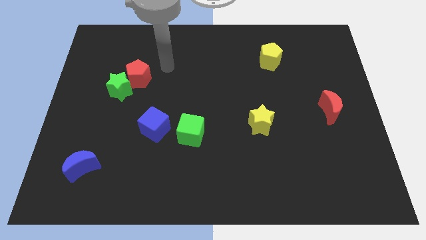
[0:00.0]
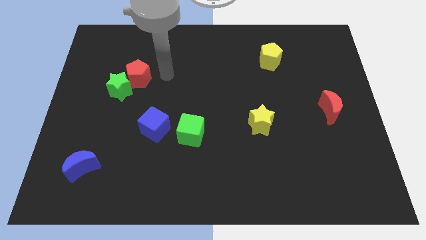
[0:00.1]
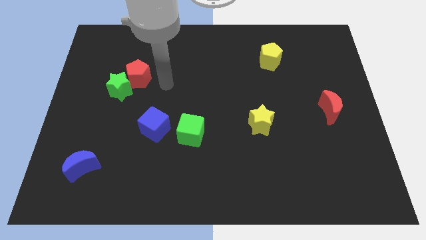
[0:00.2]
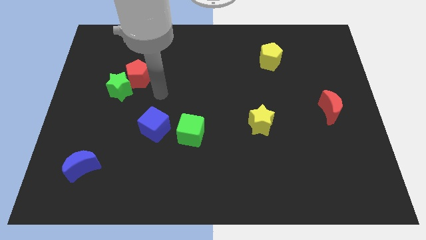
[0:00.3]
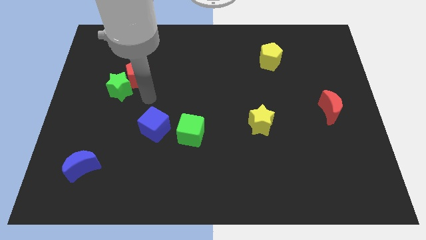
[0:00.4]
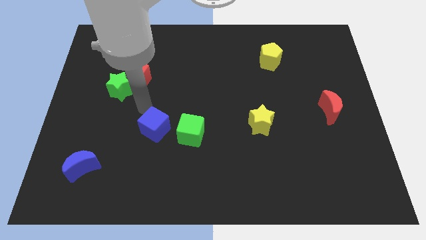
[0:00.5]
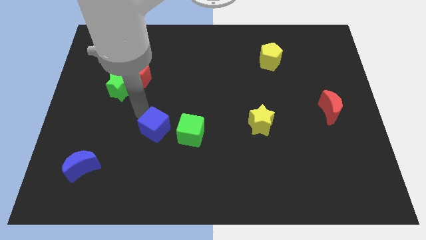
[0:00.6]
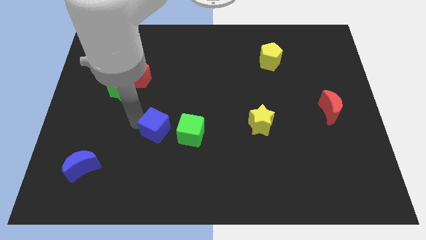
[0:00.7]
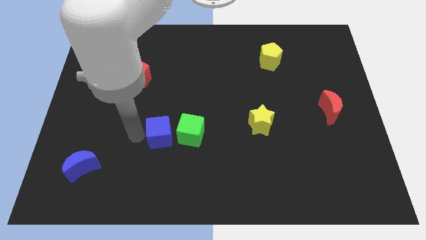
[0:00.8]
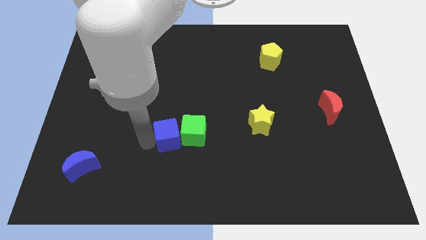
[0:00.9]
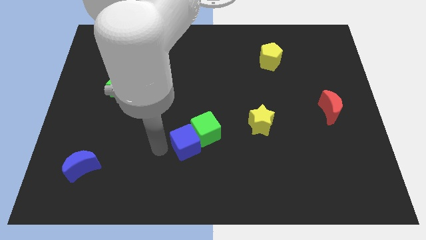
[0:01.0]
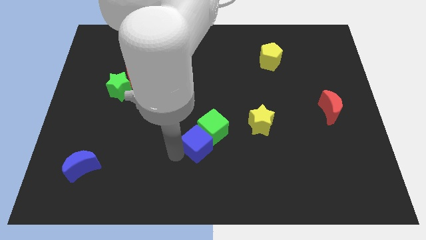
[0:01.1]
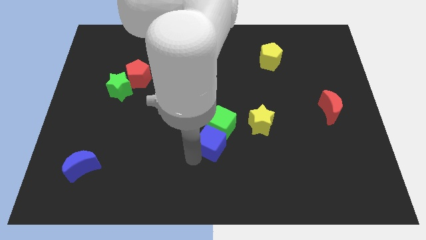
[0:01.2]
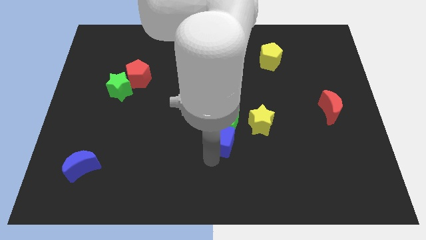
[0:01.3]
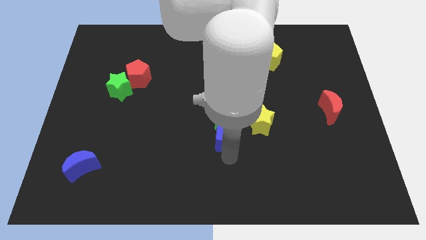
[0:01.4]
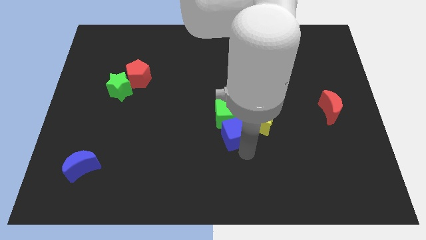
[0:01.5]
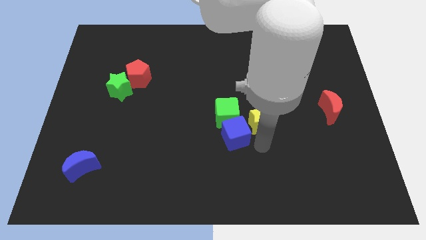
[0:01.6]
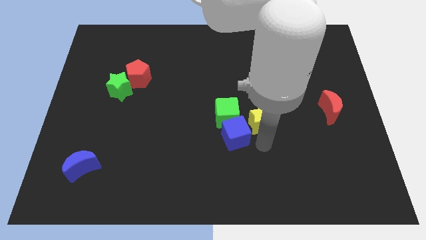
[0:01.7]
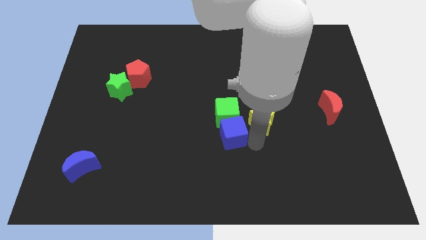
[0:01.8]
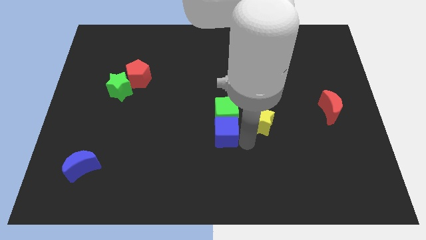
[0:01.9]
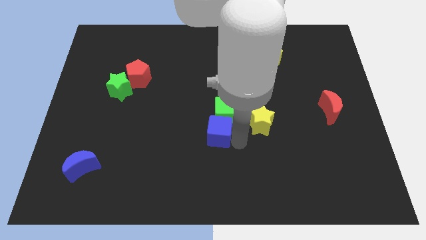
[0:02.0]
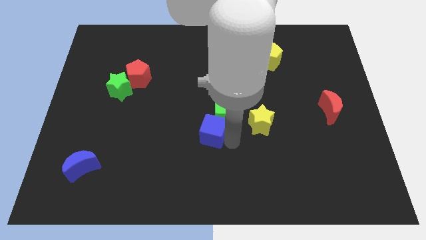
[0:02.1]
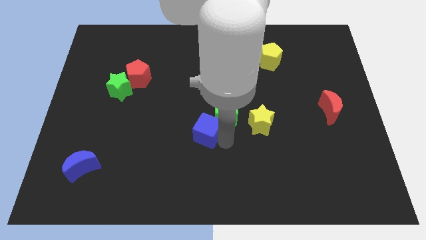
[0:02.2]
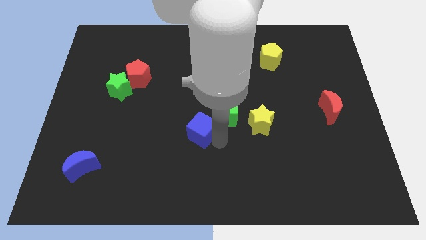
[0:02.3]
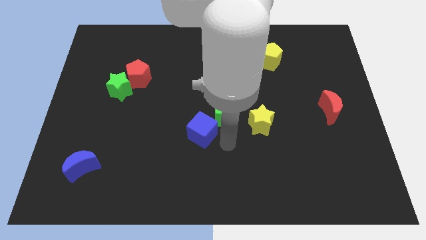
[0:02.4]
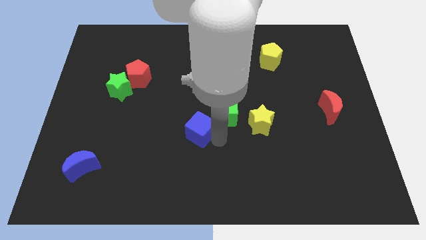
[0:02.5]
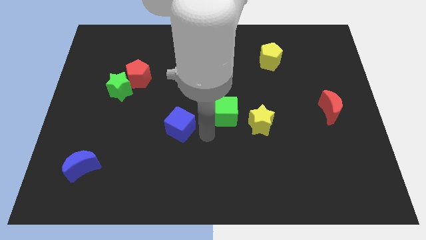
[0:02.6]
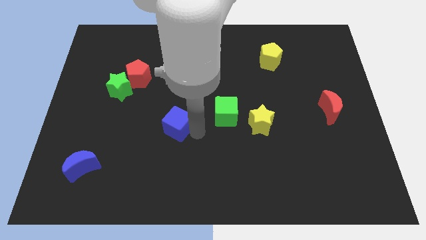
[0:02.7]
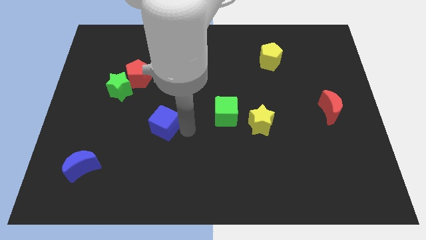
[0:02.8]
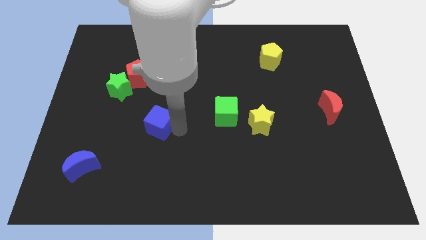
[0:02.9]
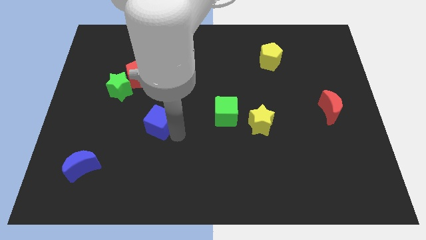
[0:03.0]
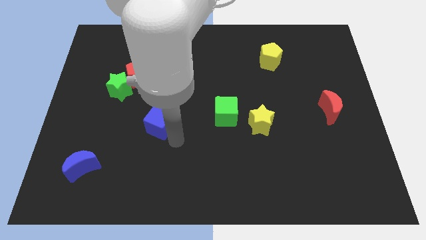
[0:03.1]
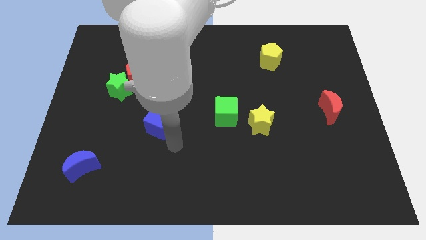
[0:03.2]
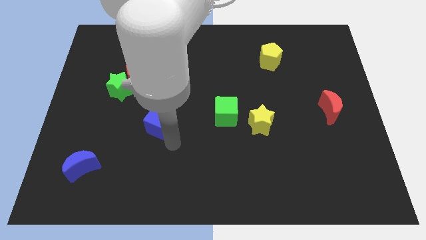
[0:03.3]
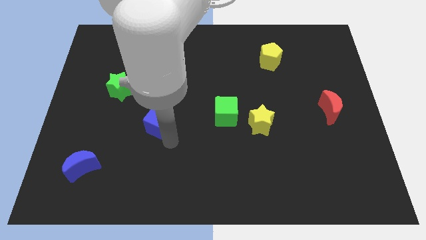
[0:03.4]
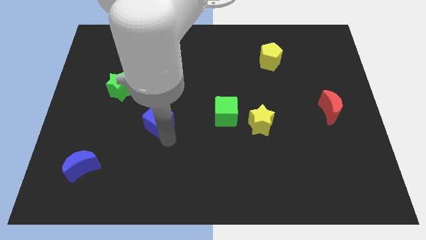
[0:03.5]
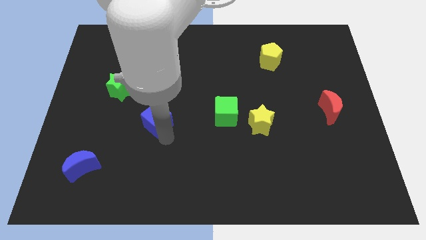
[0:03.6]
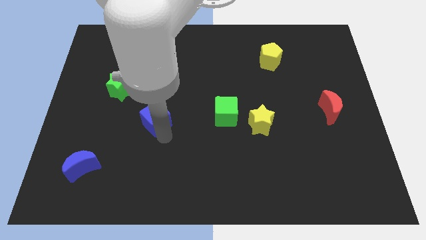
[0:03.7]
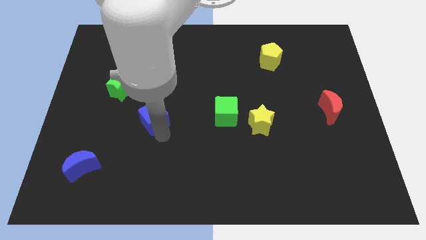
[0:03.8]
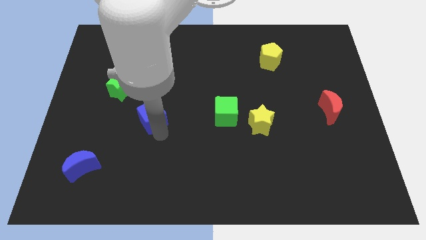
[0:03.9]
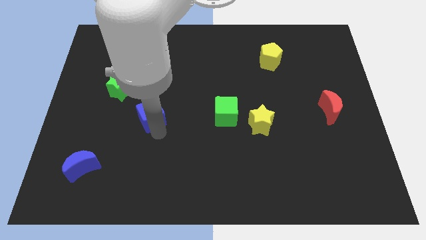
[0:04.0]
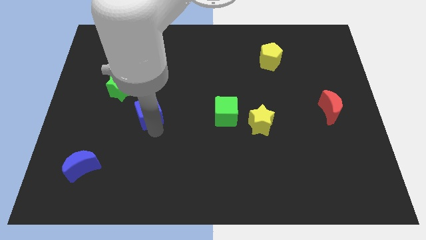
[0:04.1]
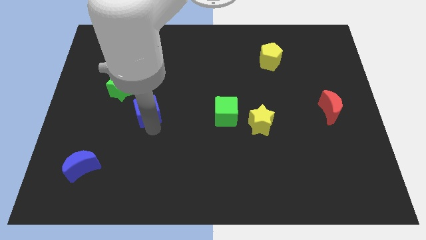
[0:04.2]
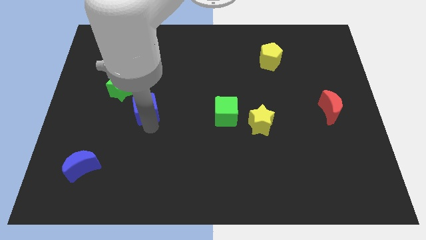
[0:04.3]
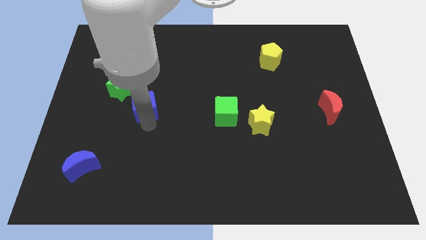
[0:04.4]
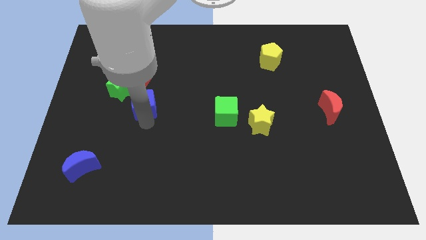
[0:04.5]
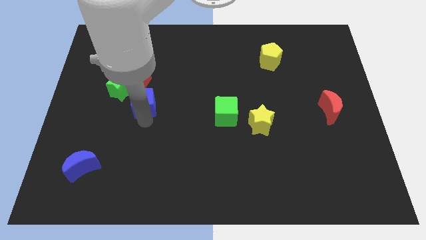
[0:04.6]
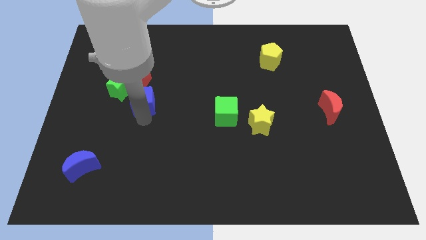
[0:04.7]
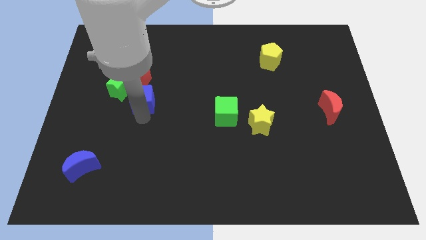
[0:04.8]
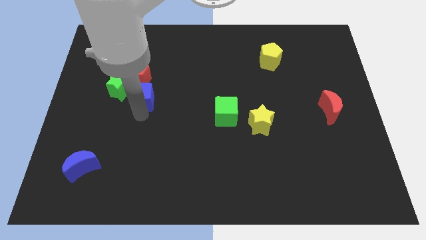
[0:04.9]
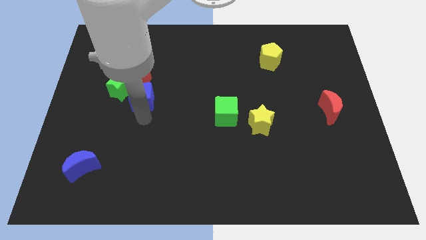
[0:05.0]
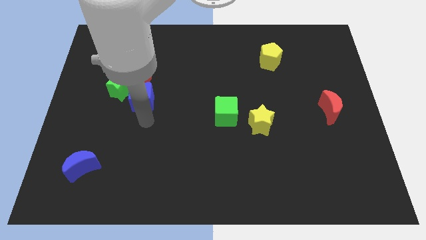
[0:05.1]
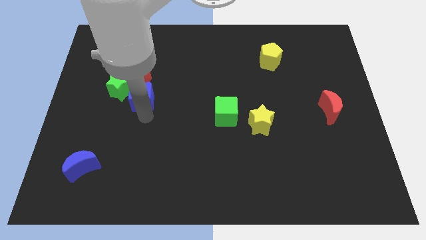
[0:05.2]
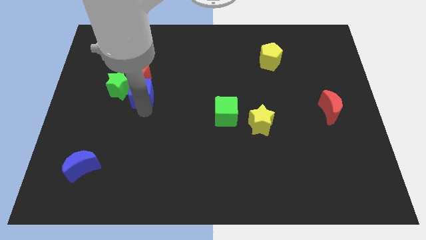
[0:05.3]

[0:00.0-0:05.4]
slide the blue cube towards the red pentagon

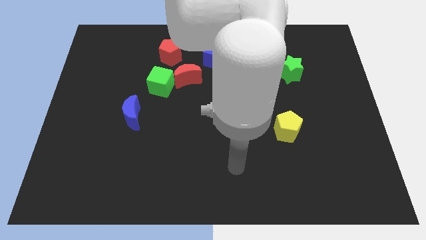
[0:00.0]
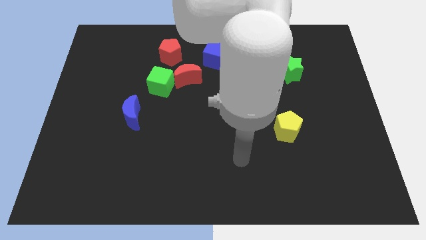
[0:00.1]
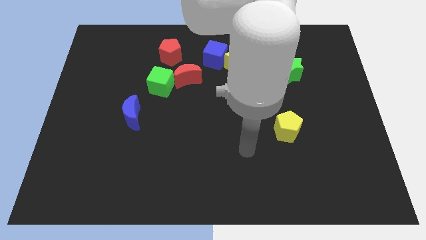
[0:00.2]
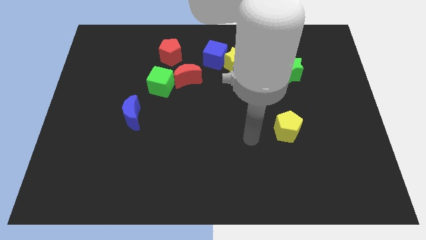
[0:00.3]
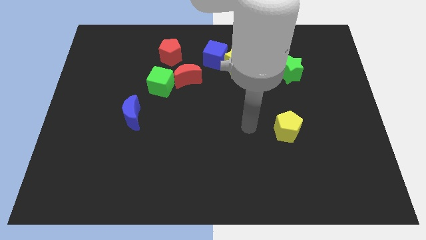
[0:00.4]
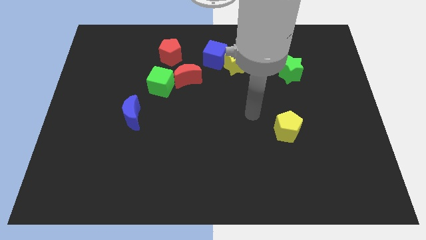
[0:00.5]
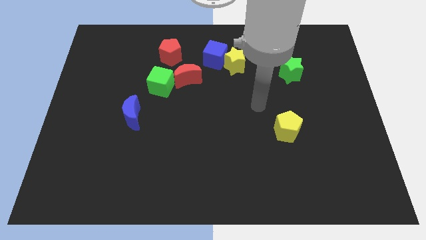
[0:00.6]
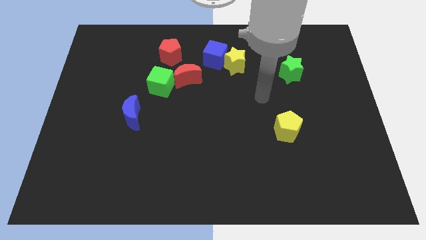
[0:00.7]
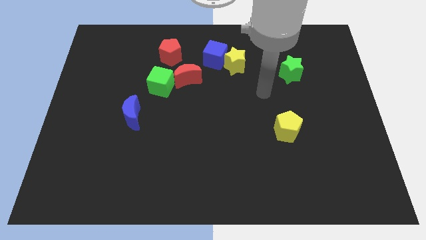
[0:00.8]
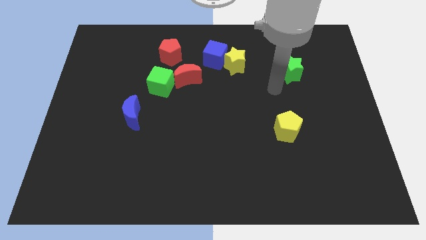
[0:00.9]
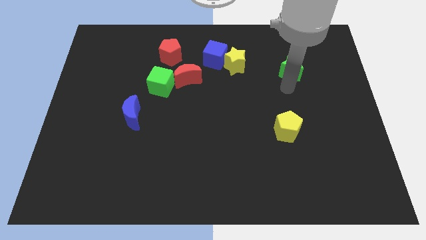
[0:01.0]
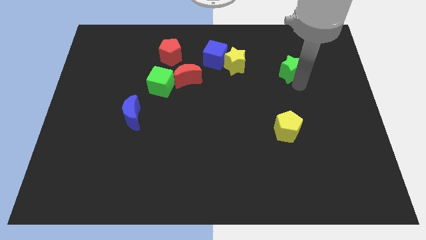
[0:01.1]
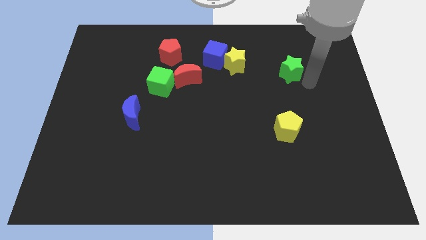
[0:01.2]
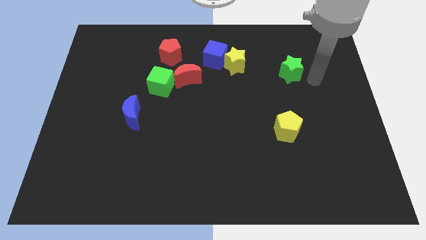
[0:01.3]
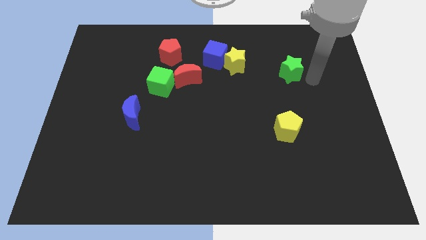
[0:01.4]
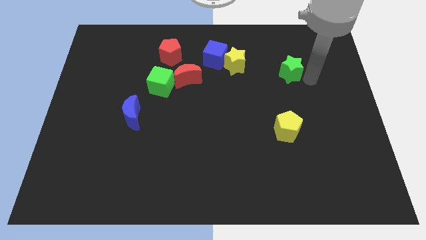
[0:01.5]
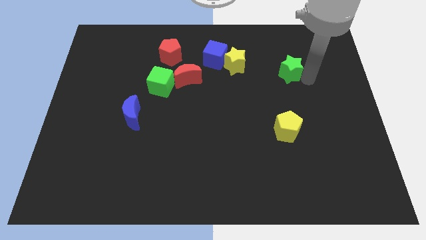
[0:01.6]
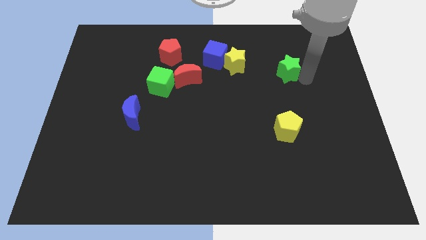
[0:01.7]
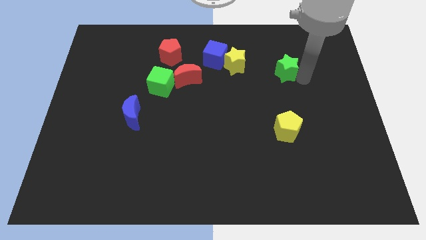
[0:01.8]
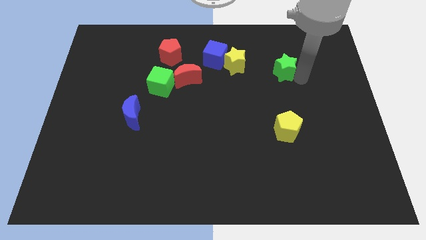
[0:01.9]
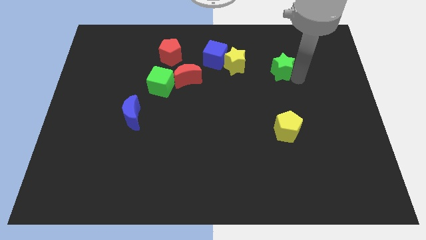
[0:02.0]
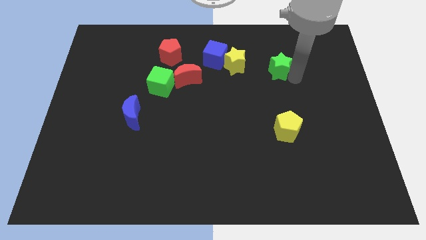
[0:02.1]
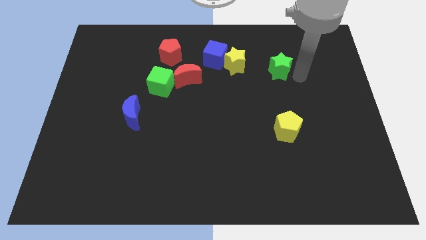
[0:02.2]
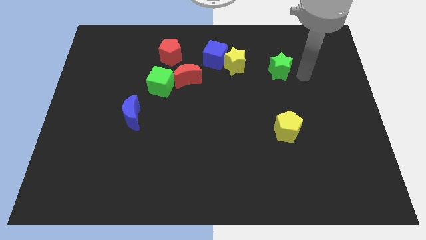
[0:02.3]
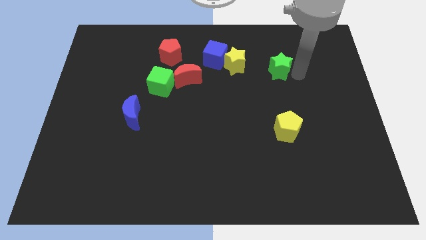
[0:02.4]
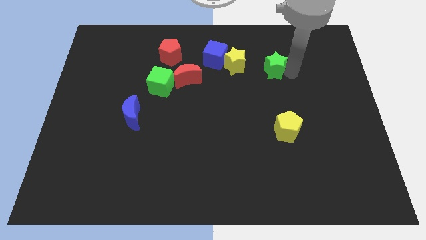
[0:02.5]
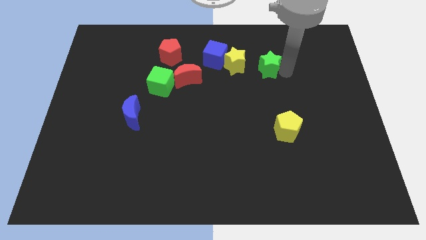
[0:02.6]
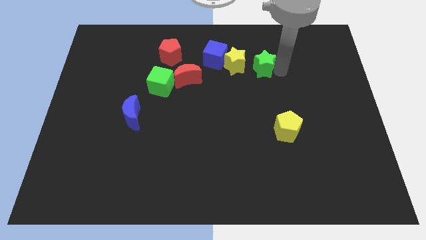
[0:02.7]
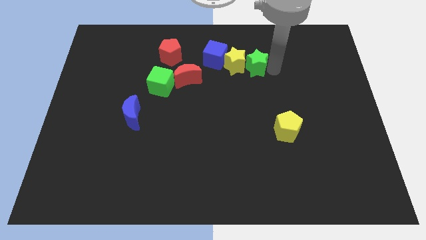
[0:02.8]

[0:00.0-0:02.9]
put the green star to the yellow star
